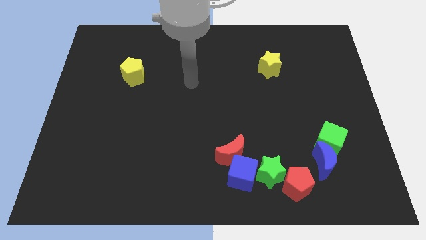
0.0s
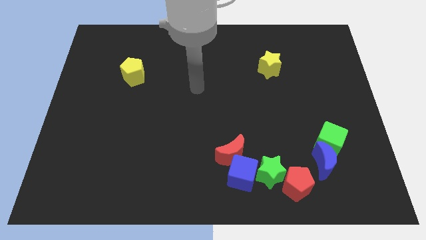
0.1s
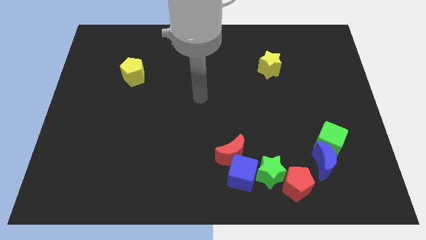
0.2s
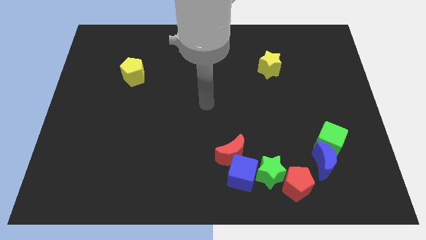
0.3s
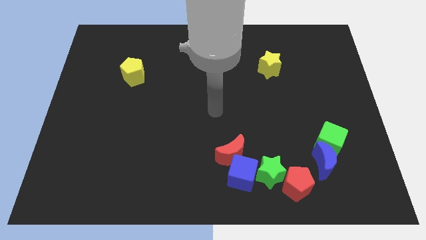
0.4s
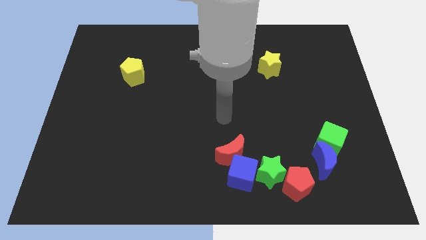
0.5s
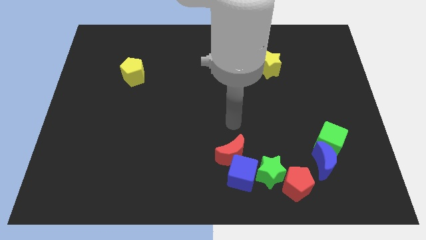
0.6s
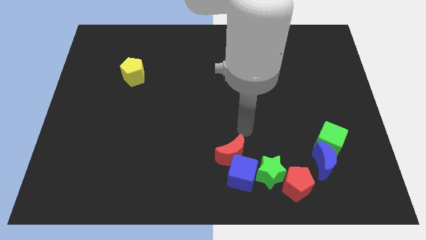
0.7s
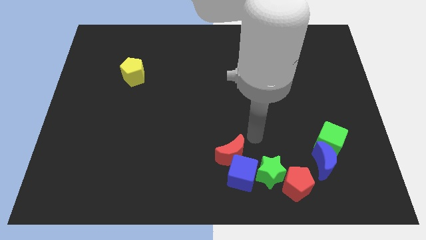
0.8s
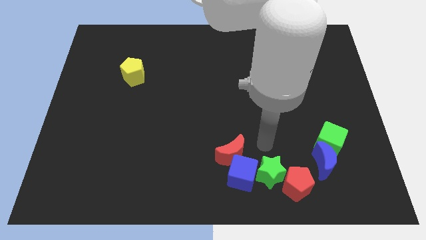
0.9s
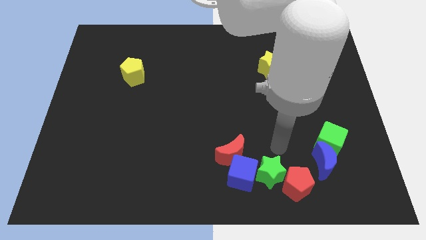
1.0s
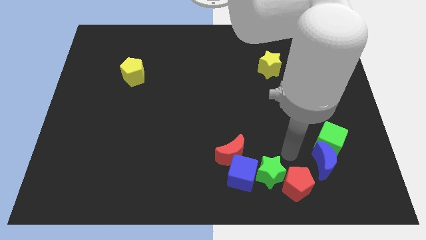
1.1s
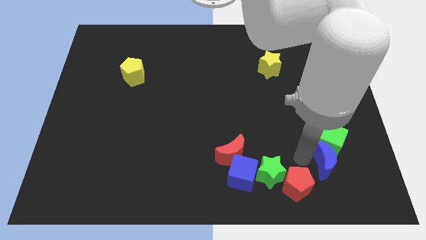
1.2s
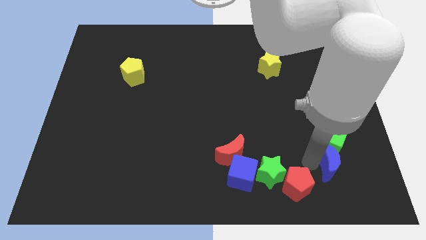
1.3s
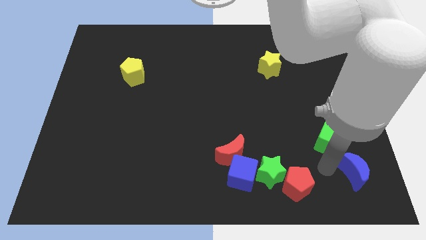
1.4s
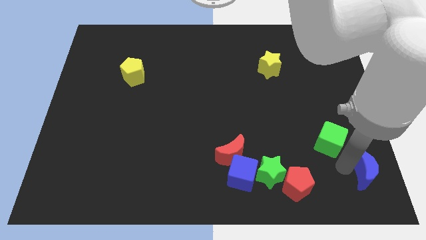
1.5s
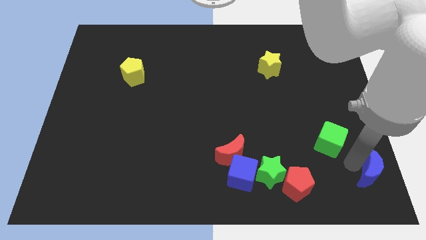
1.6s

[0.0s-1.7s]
move the green cube away from the blue moon

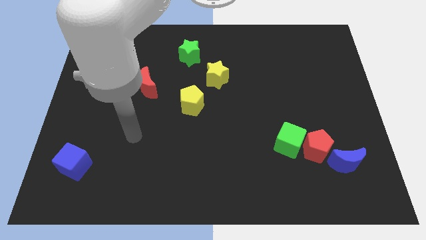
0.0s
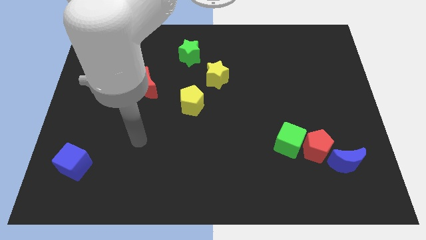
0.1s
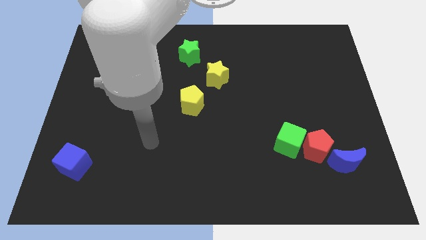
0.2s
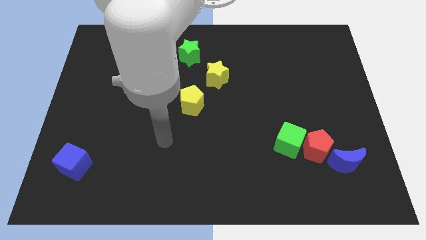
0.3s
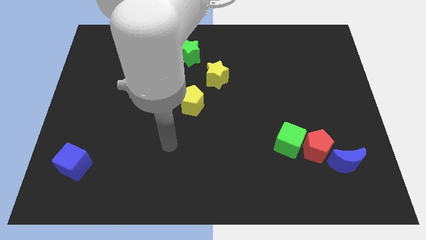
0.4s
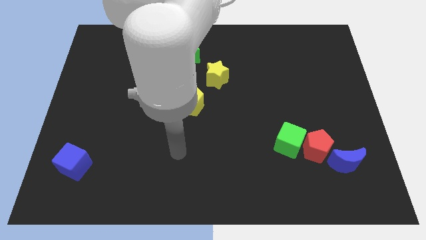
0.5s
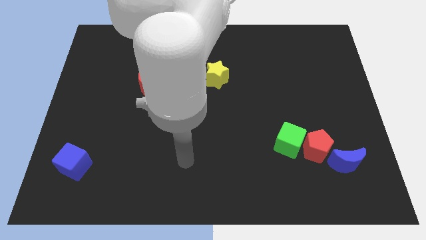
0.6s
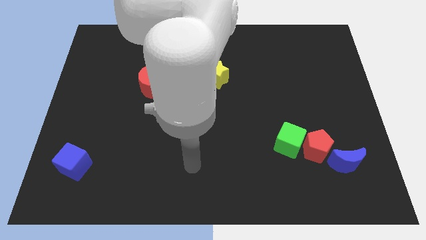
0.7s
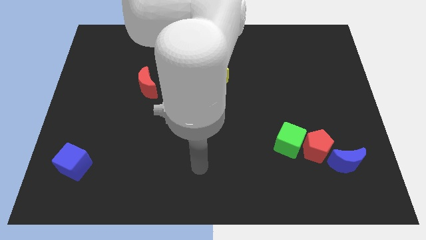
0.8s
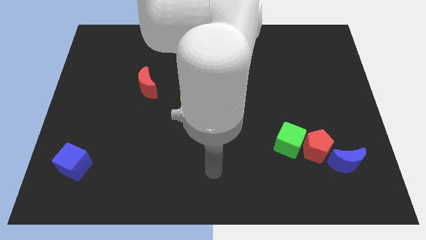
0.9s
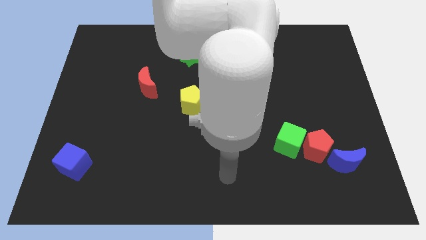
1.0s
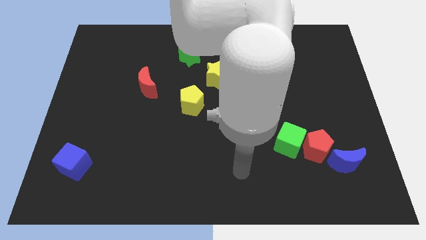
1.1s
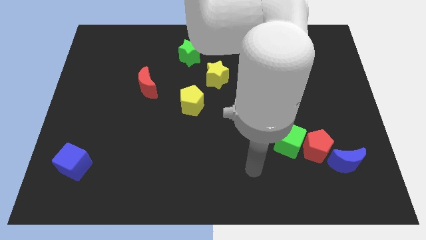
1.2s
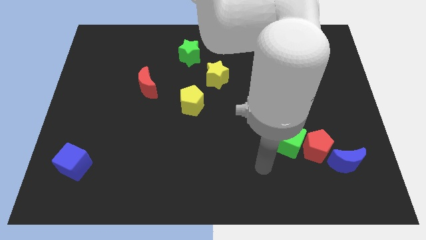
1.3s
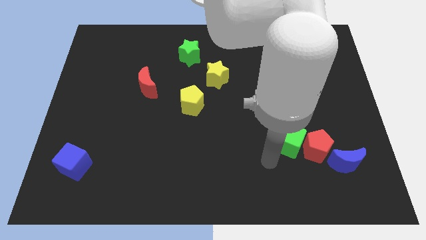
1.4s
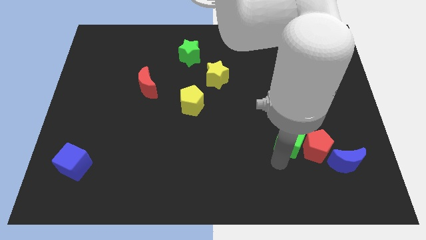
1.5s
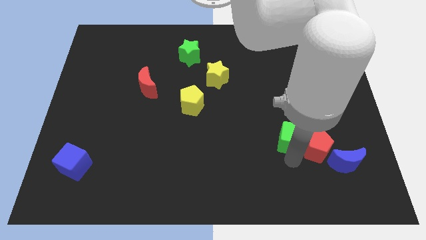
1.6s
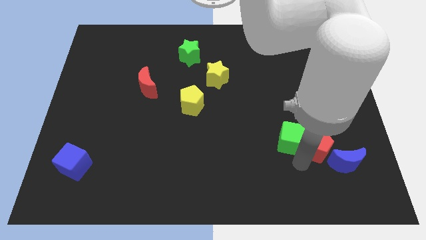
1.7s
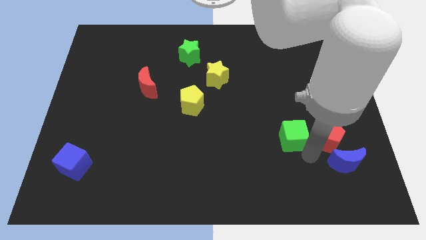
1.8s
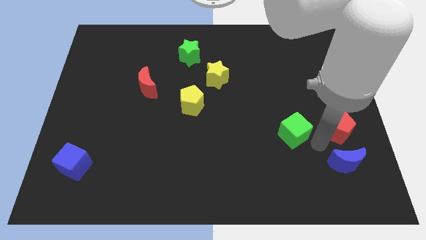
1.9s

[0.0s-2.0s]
separate the green cube from the red pentagon

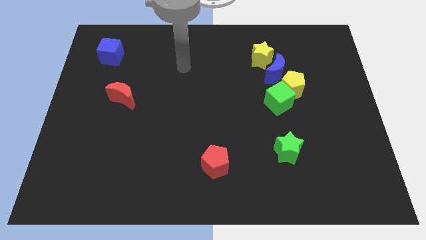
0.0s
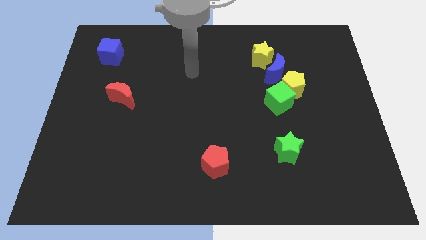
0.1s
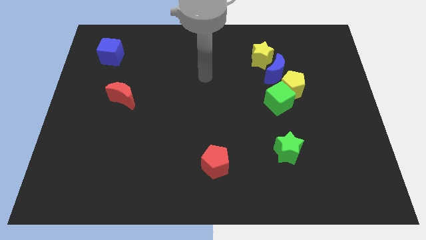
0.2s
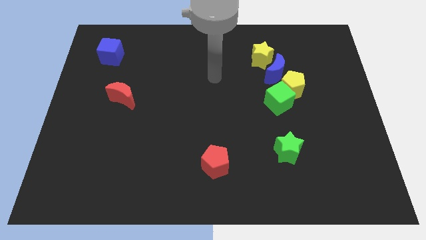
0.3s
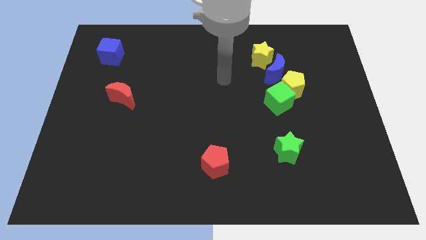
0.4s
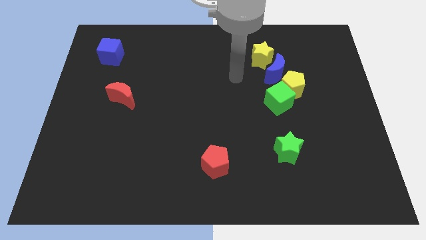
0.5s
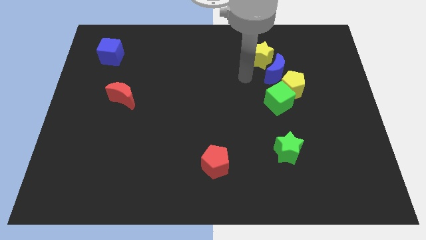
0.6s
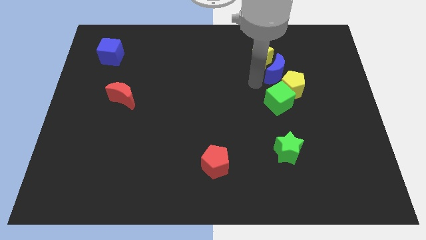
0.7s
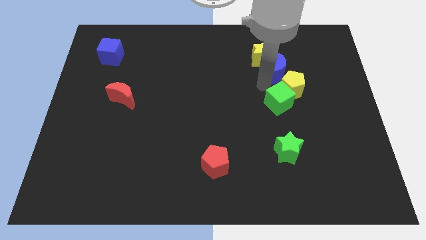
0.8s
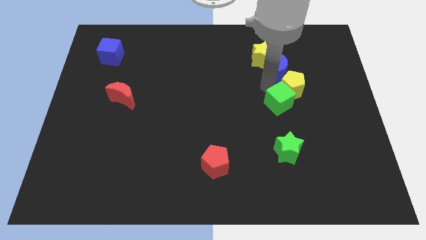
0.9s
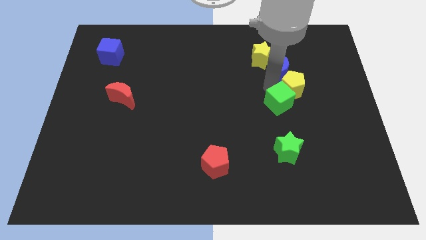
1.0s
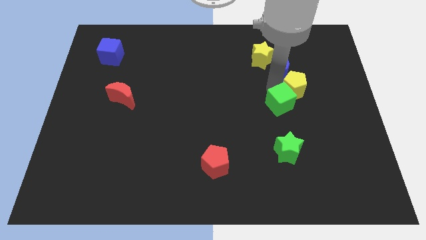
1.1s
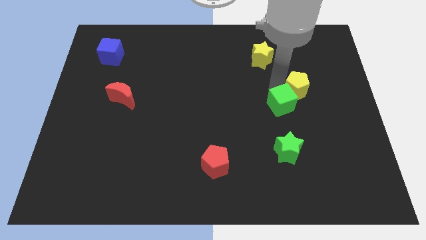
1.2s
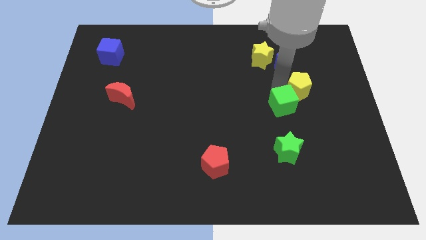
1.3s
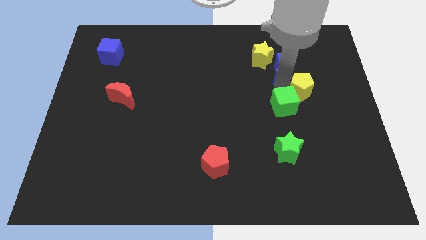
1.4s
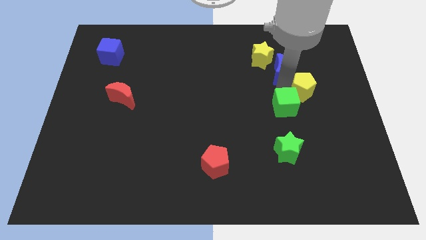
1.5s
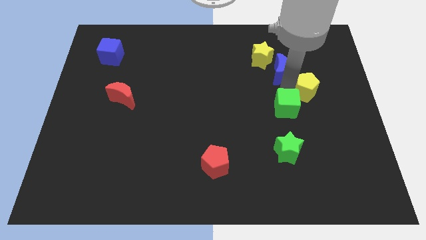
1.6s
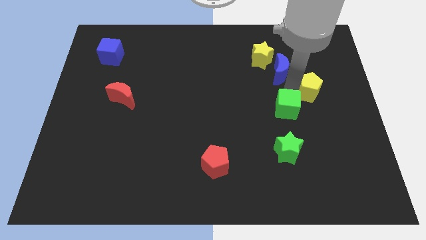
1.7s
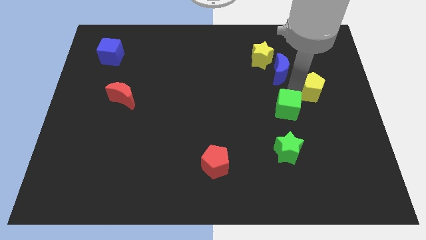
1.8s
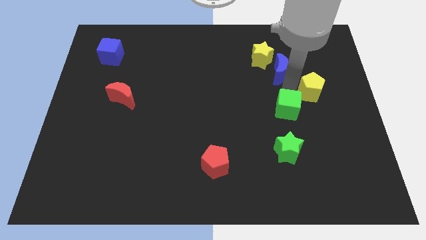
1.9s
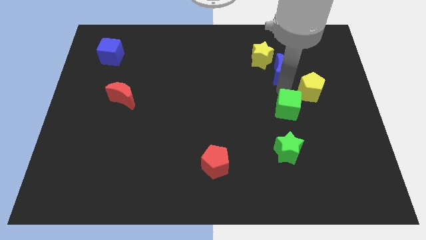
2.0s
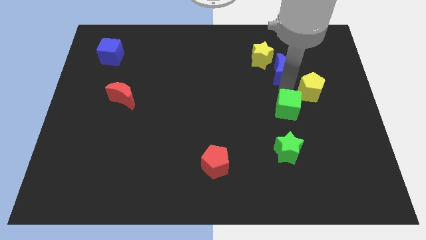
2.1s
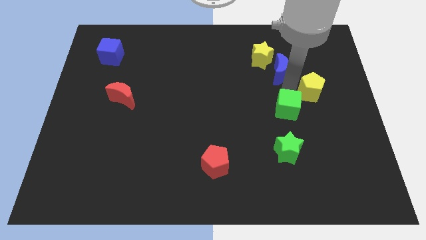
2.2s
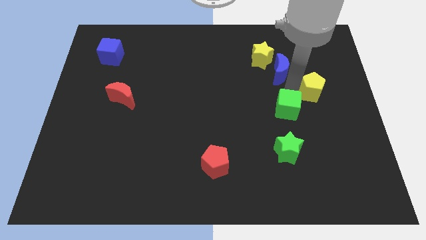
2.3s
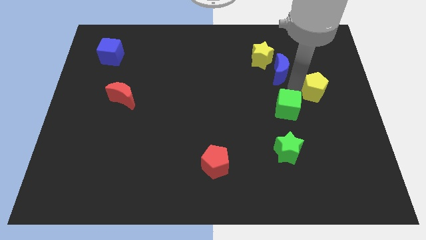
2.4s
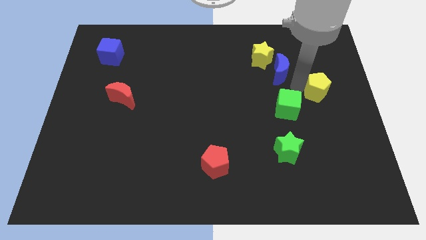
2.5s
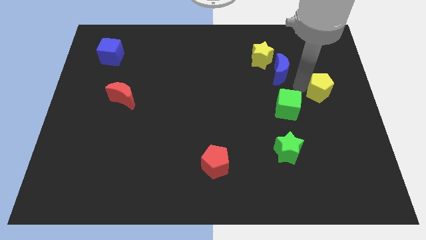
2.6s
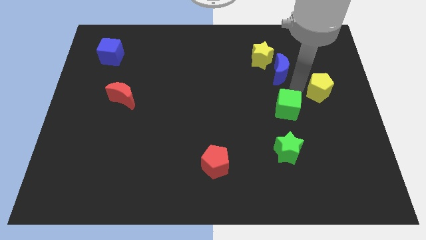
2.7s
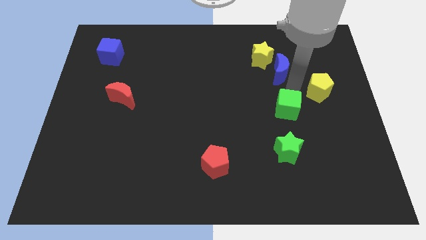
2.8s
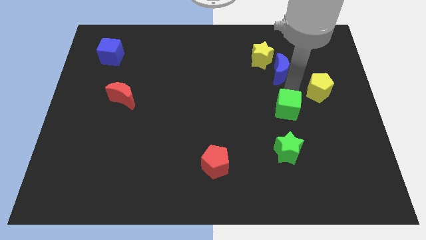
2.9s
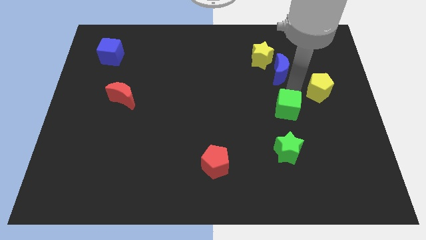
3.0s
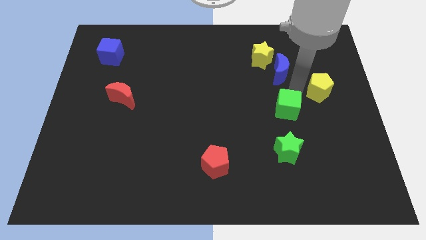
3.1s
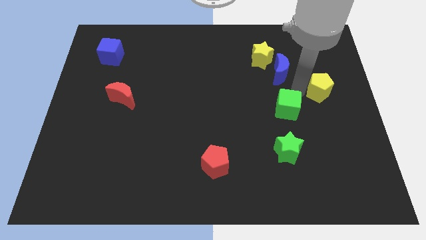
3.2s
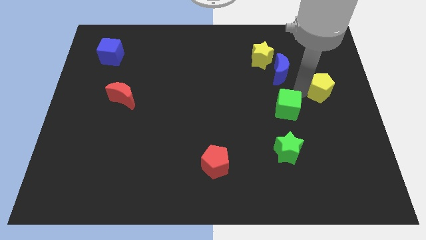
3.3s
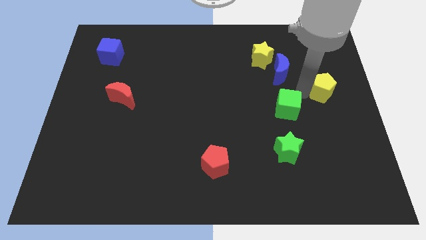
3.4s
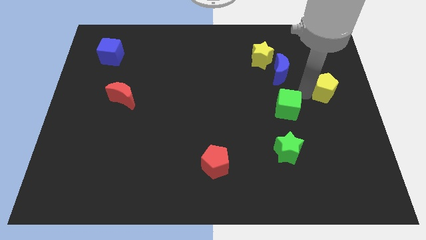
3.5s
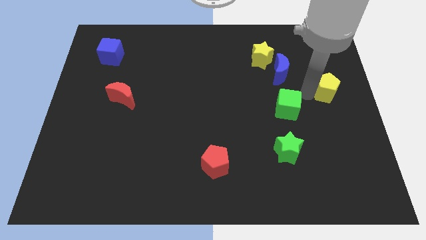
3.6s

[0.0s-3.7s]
separate the yellow pentagon from the green cube and blue moon

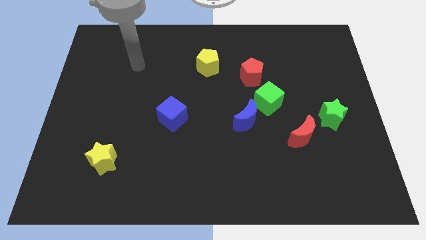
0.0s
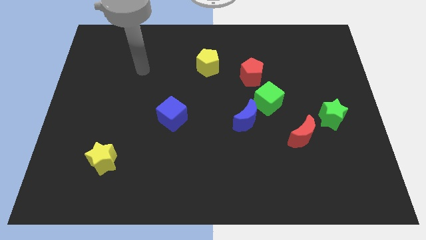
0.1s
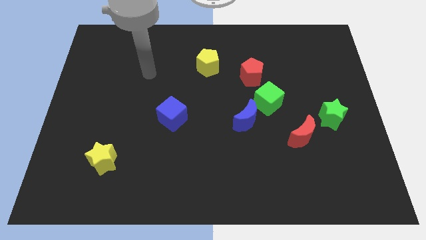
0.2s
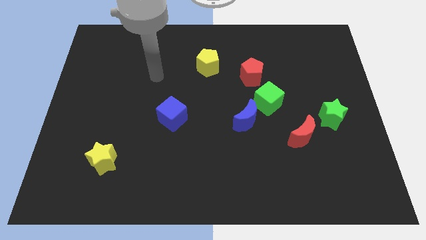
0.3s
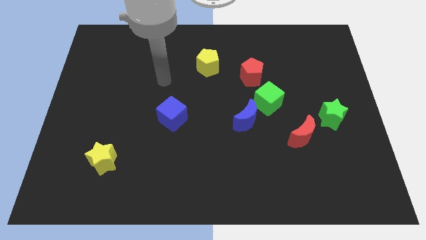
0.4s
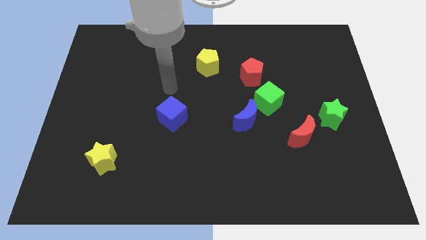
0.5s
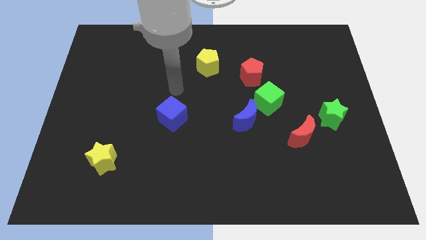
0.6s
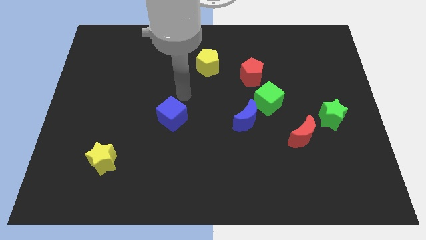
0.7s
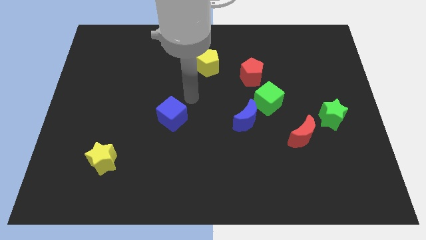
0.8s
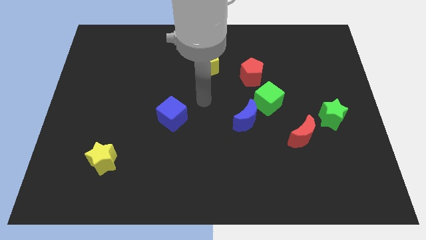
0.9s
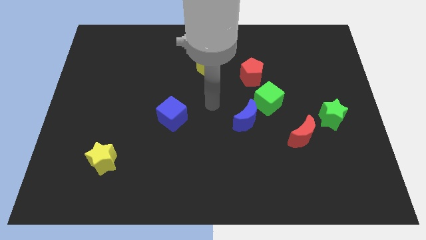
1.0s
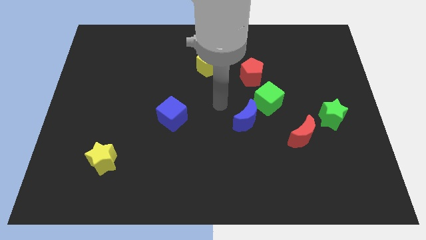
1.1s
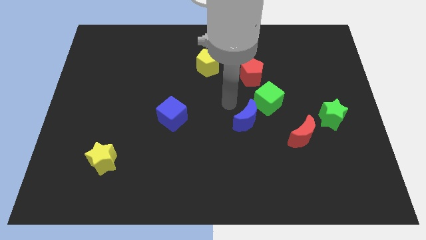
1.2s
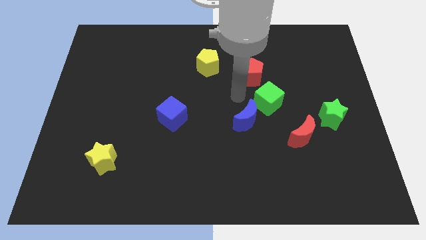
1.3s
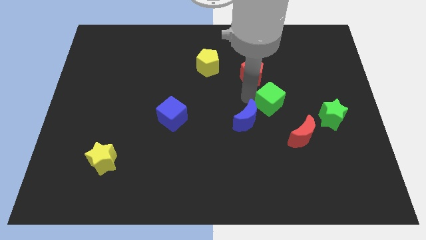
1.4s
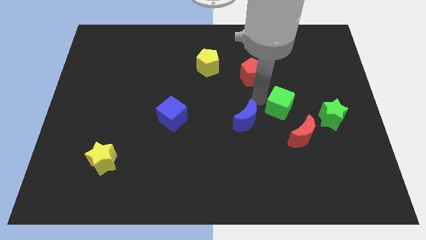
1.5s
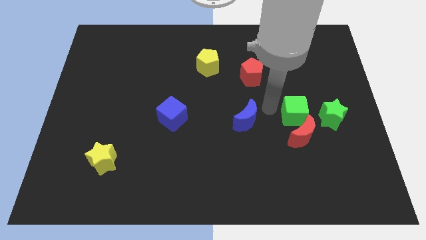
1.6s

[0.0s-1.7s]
move the blue moon away from the green cube

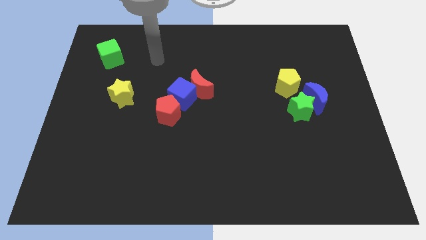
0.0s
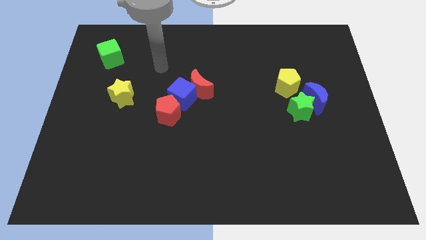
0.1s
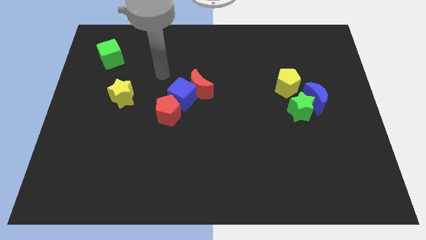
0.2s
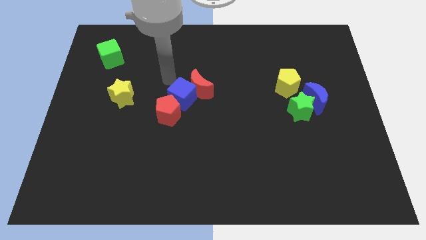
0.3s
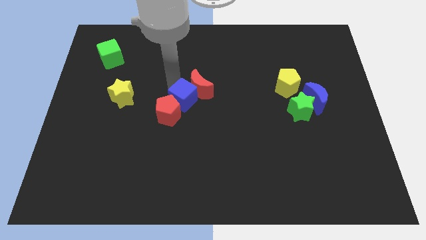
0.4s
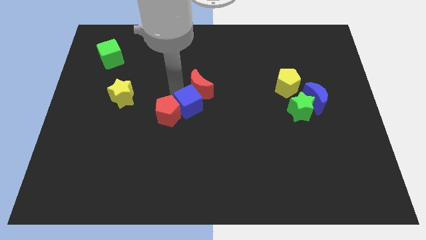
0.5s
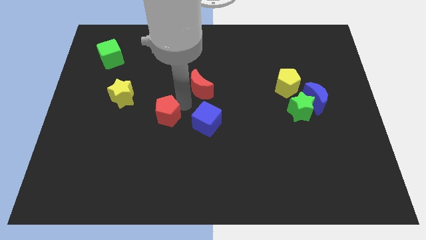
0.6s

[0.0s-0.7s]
separate the red moon from the blue cube
